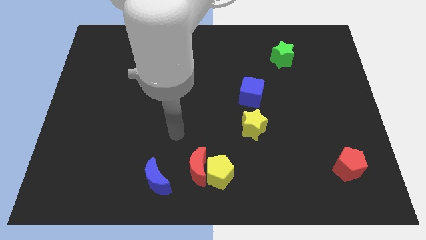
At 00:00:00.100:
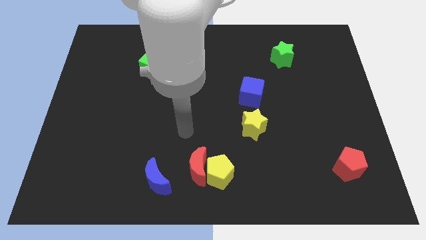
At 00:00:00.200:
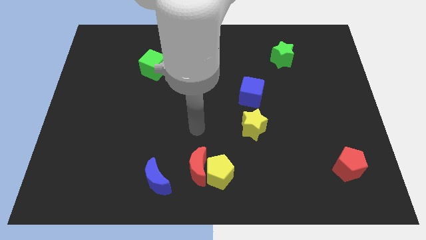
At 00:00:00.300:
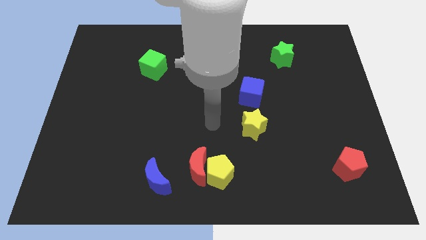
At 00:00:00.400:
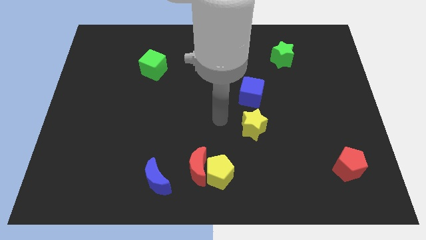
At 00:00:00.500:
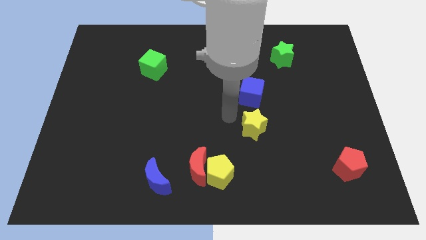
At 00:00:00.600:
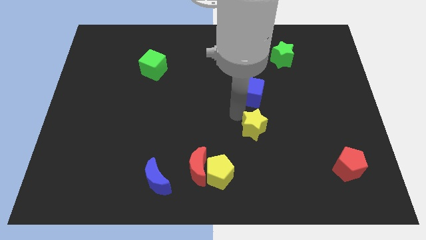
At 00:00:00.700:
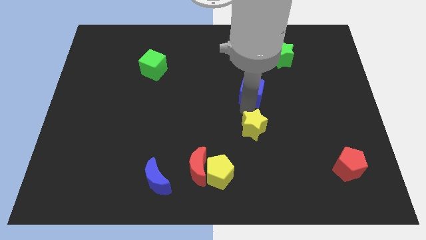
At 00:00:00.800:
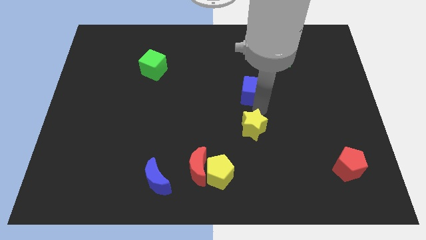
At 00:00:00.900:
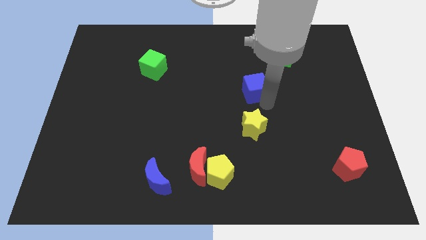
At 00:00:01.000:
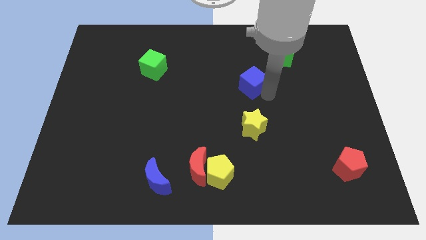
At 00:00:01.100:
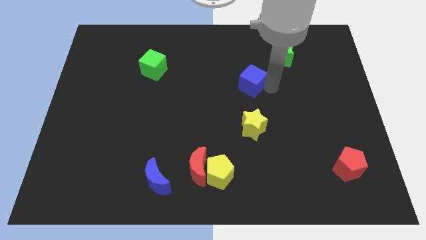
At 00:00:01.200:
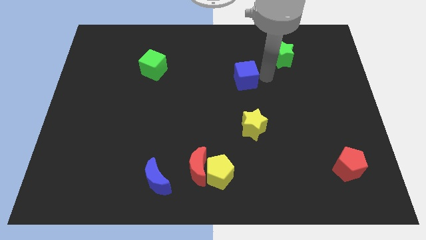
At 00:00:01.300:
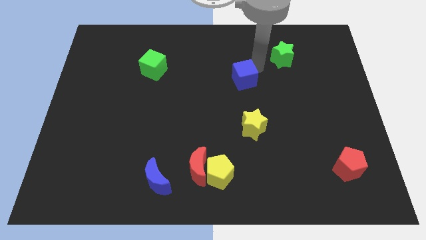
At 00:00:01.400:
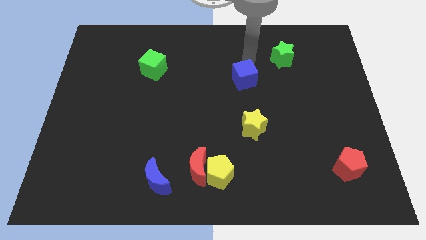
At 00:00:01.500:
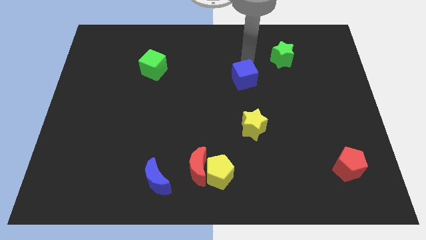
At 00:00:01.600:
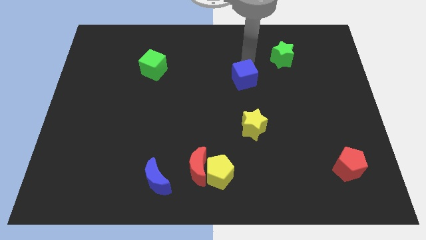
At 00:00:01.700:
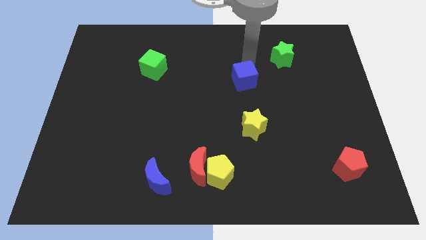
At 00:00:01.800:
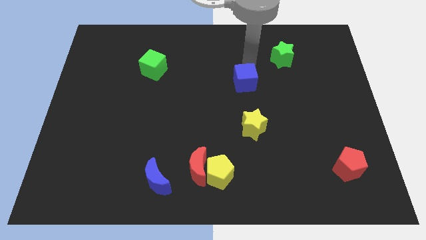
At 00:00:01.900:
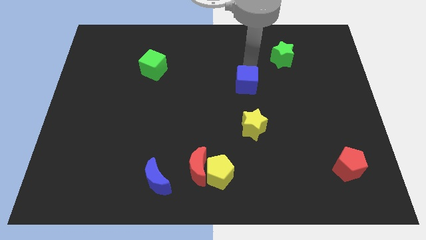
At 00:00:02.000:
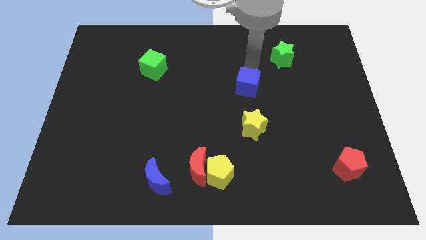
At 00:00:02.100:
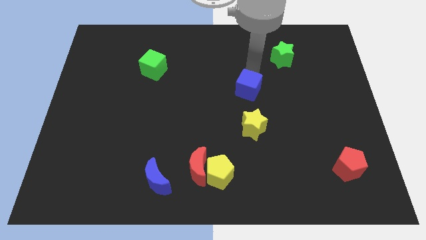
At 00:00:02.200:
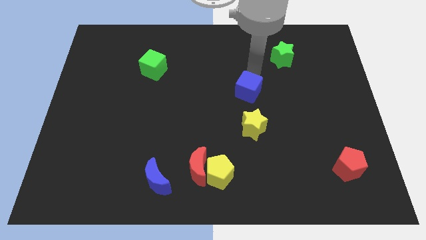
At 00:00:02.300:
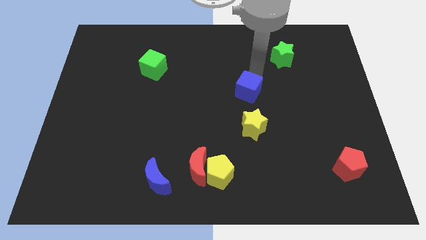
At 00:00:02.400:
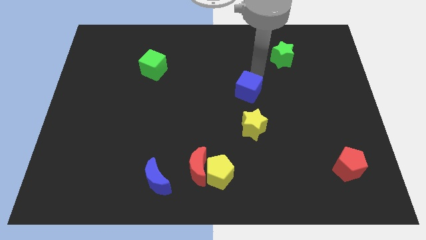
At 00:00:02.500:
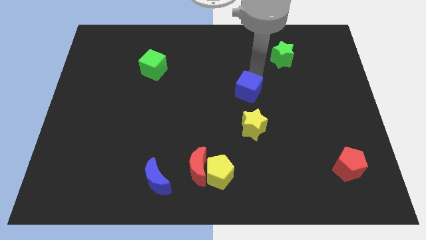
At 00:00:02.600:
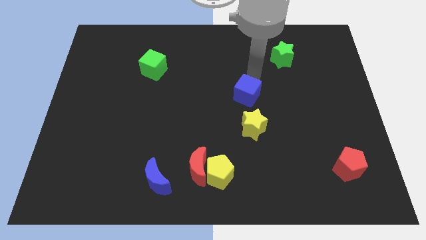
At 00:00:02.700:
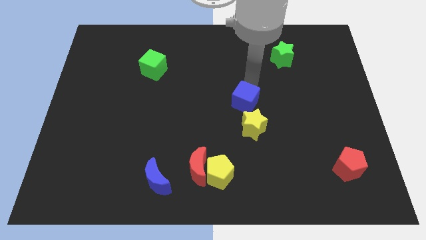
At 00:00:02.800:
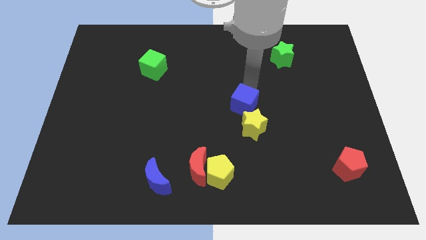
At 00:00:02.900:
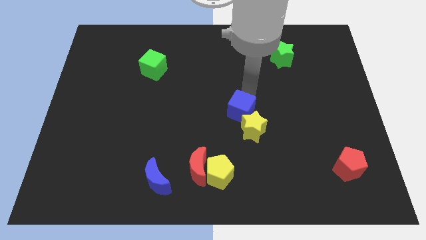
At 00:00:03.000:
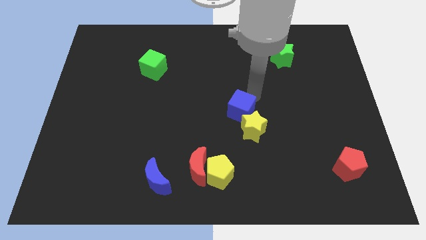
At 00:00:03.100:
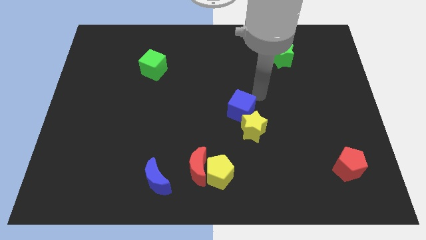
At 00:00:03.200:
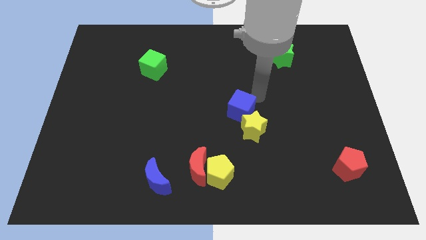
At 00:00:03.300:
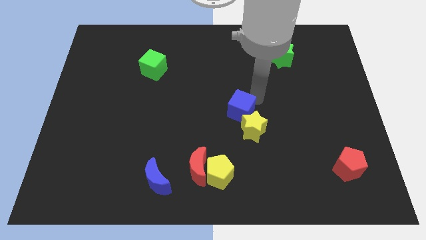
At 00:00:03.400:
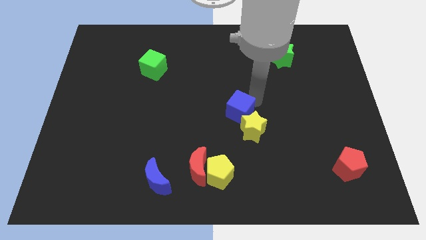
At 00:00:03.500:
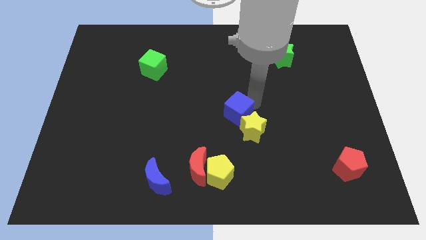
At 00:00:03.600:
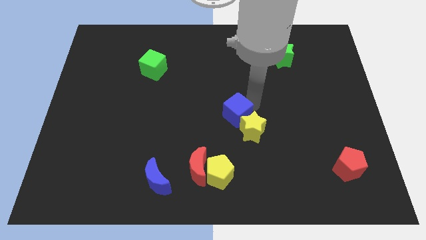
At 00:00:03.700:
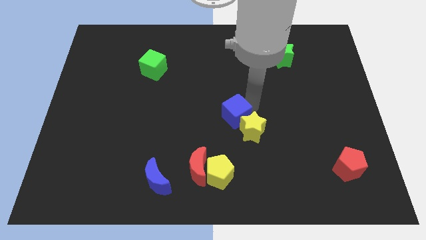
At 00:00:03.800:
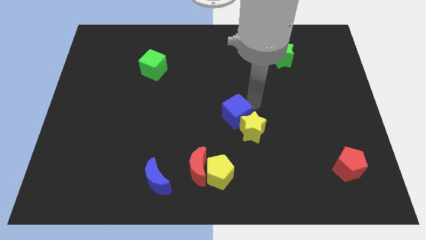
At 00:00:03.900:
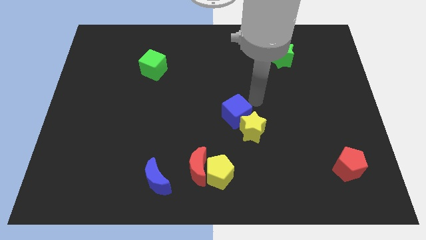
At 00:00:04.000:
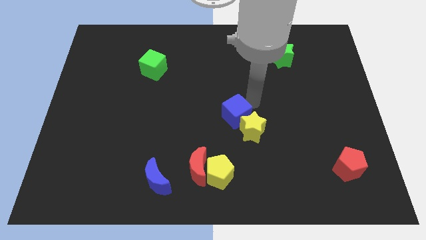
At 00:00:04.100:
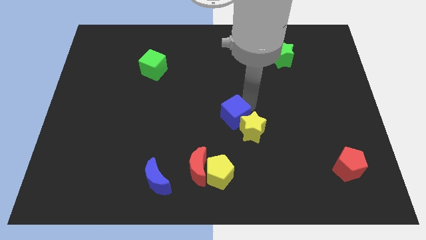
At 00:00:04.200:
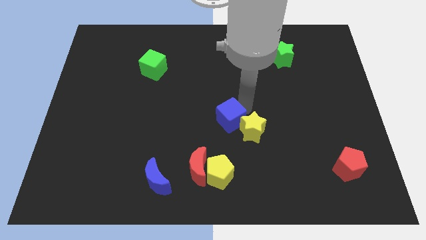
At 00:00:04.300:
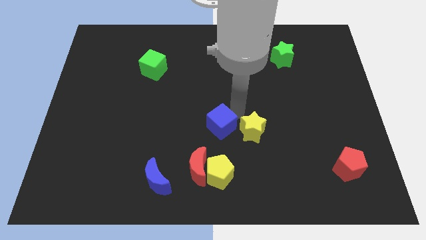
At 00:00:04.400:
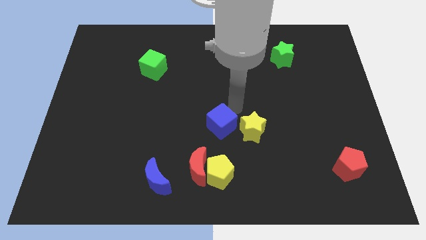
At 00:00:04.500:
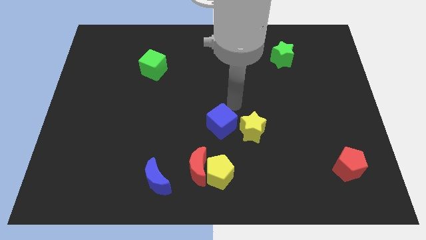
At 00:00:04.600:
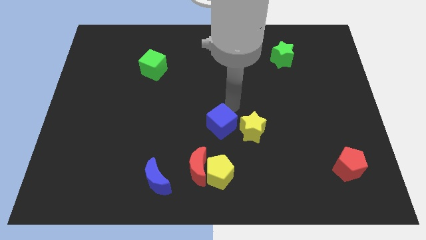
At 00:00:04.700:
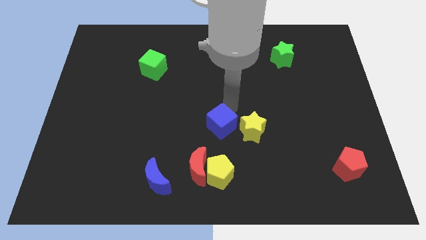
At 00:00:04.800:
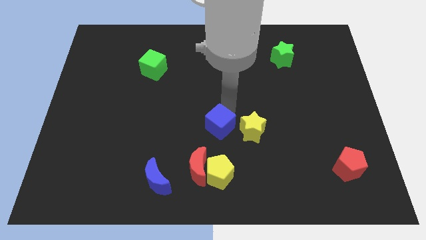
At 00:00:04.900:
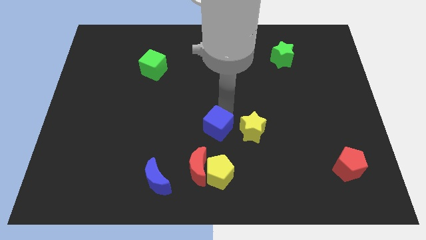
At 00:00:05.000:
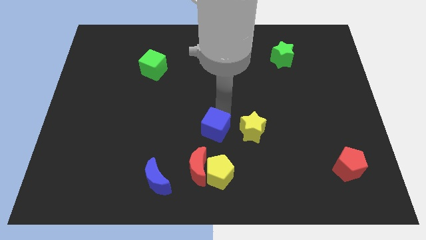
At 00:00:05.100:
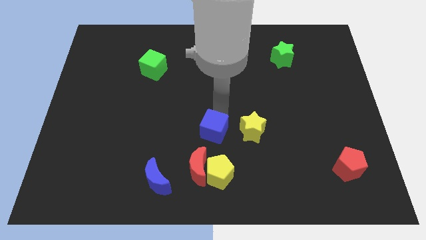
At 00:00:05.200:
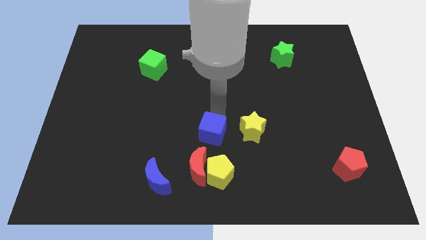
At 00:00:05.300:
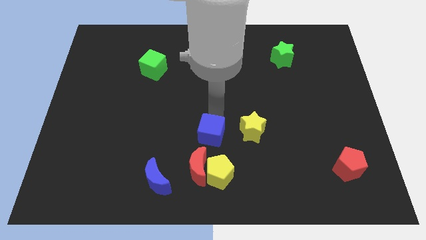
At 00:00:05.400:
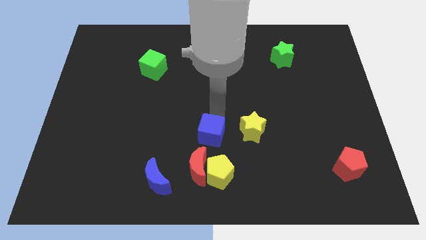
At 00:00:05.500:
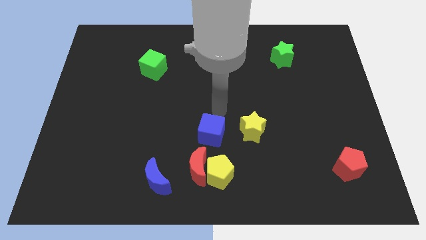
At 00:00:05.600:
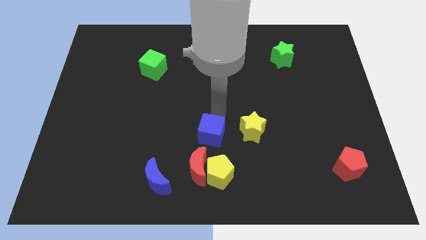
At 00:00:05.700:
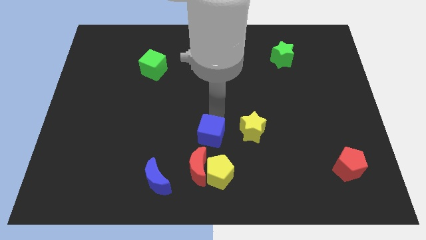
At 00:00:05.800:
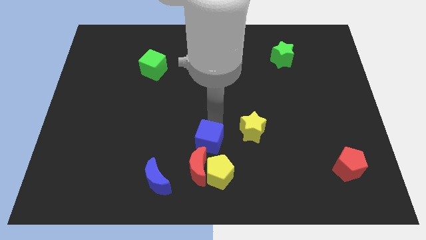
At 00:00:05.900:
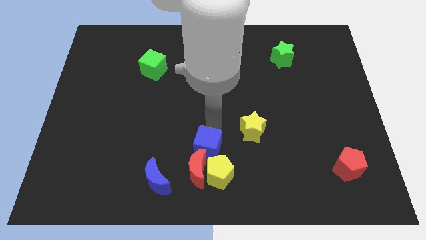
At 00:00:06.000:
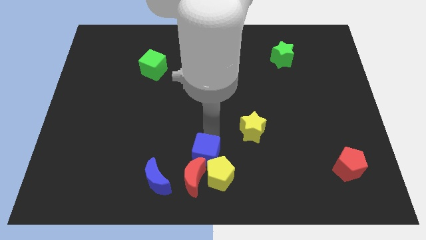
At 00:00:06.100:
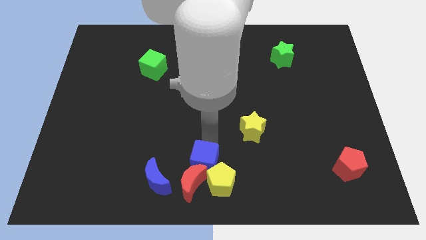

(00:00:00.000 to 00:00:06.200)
put the blue cube to the red moon
